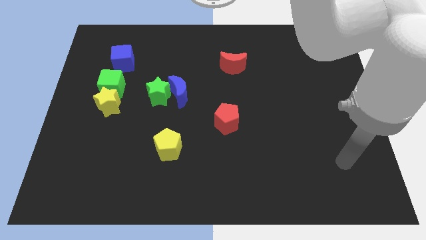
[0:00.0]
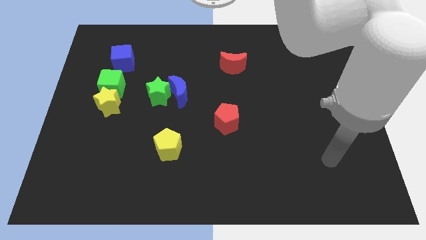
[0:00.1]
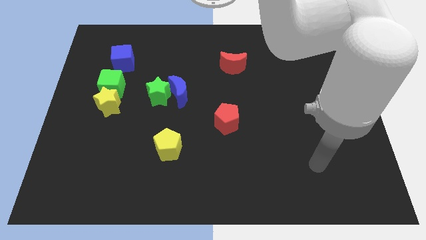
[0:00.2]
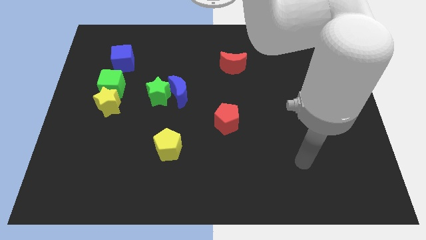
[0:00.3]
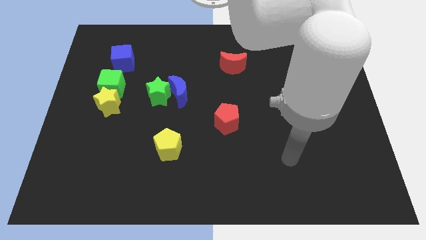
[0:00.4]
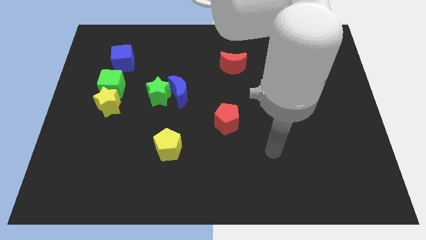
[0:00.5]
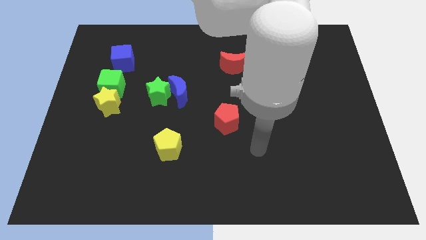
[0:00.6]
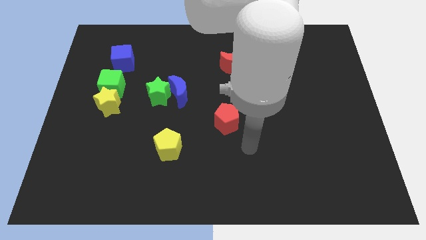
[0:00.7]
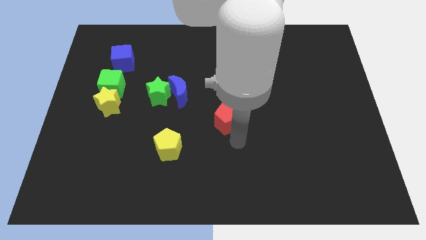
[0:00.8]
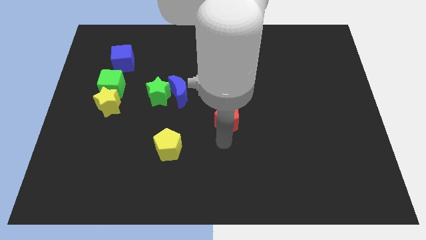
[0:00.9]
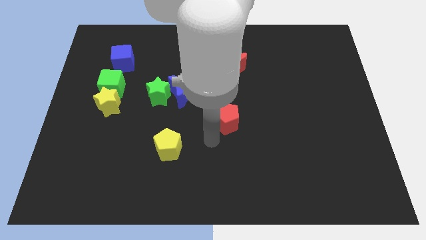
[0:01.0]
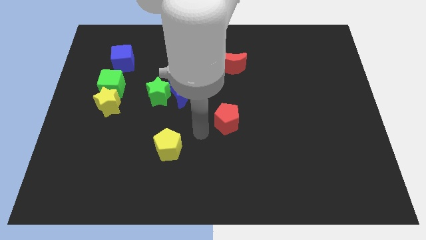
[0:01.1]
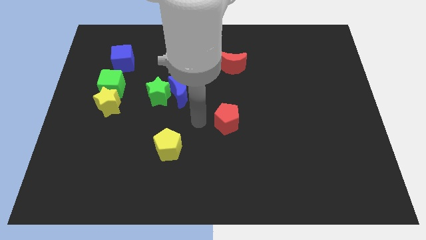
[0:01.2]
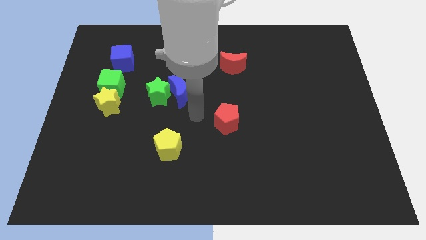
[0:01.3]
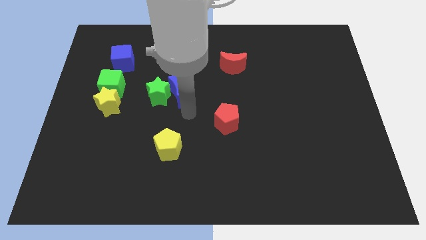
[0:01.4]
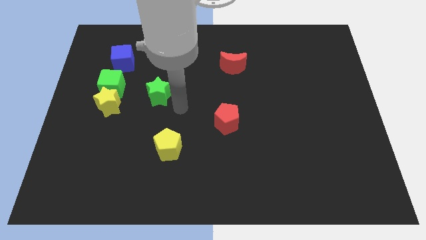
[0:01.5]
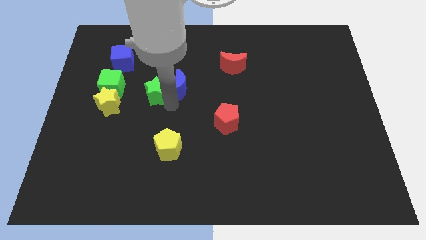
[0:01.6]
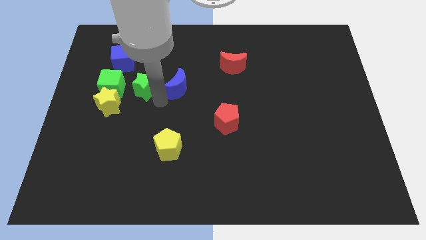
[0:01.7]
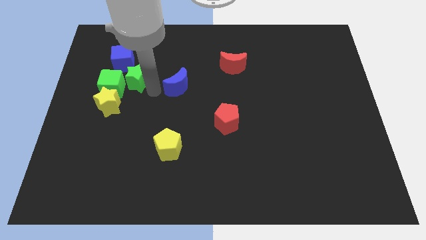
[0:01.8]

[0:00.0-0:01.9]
separate the blue moon from the green star

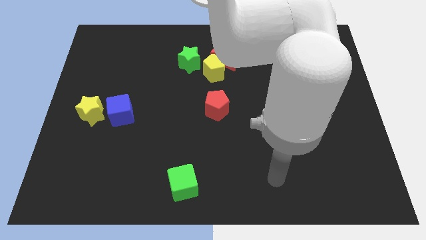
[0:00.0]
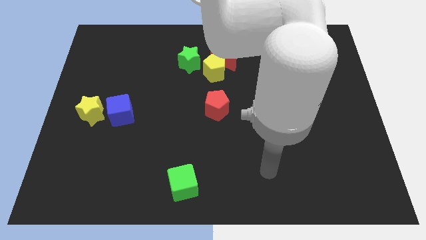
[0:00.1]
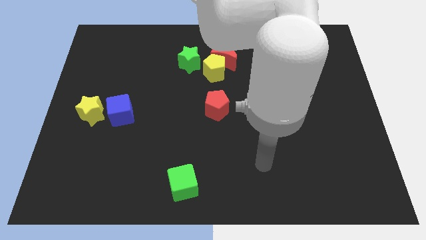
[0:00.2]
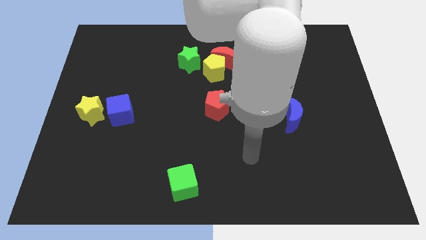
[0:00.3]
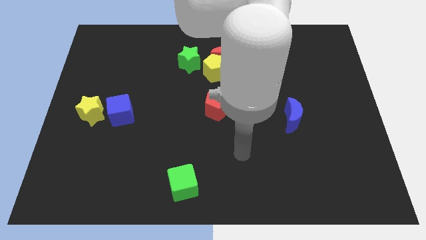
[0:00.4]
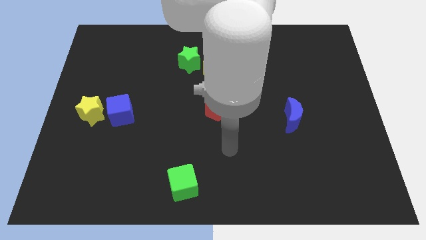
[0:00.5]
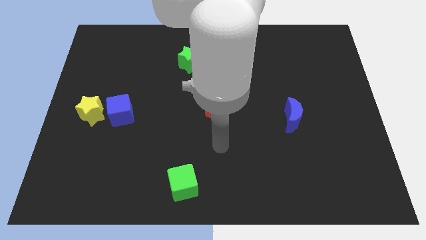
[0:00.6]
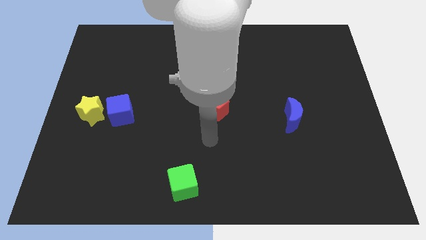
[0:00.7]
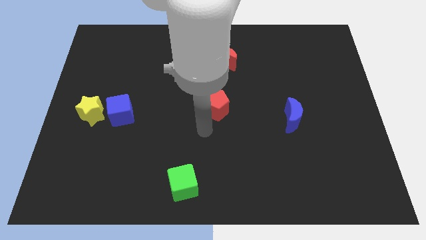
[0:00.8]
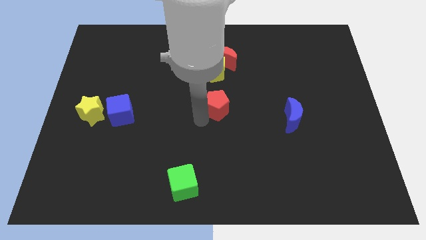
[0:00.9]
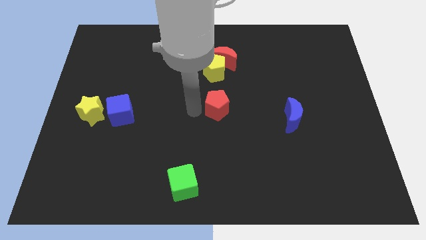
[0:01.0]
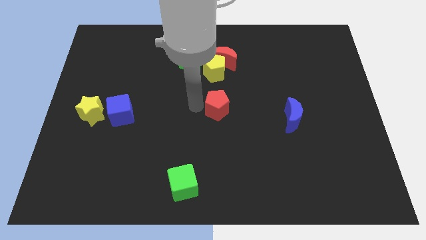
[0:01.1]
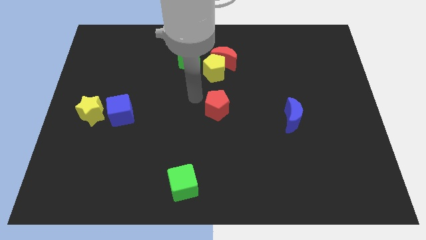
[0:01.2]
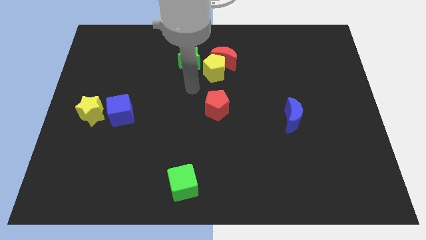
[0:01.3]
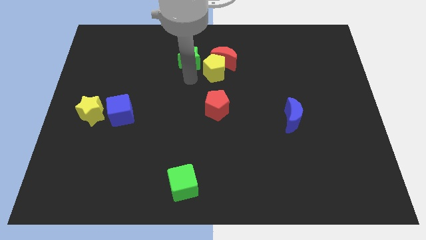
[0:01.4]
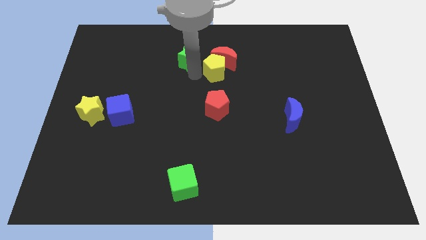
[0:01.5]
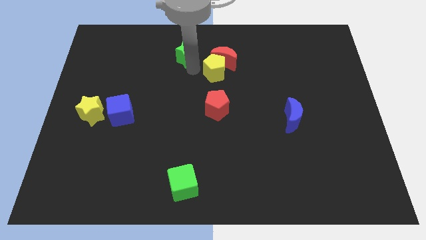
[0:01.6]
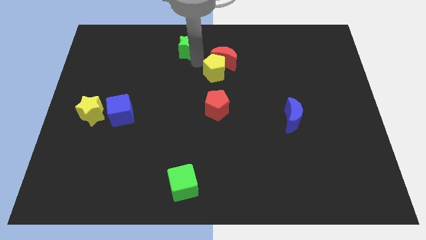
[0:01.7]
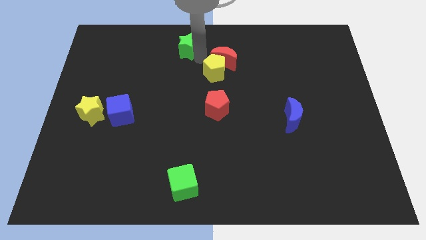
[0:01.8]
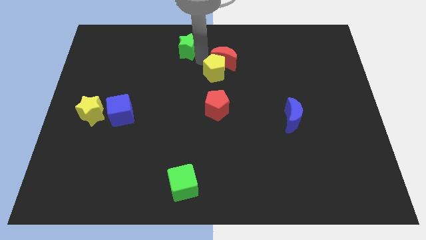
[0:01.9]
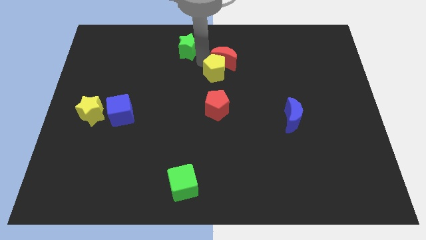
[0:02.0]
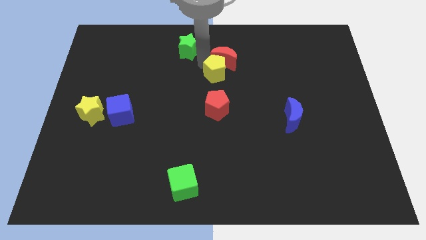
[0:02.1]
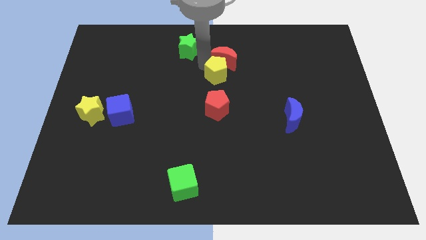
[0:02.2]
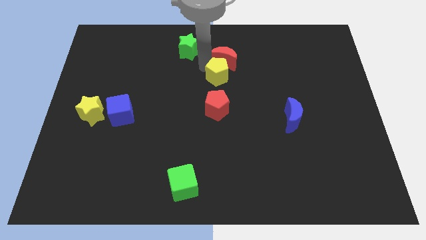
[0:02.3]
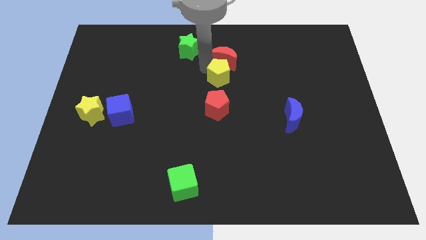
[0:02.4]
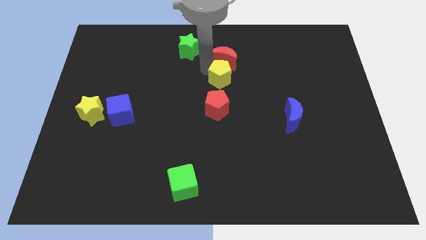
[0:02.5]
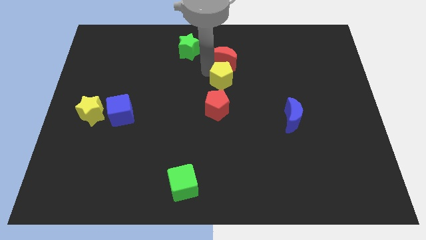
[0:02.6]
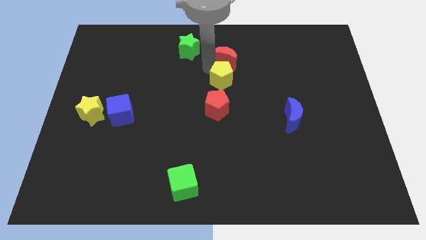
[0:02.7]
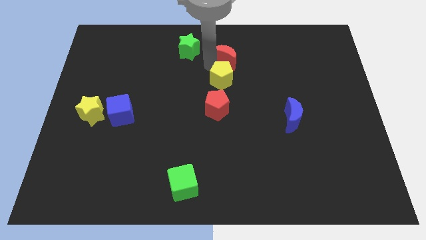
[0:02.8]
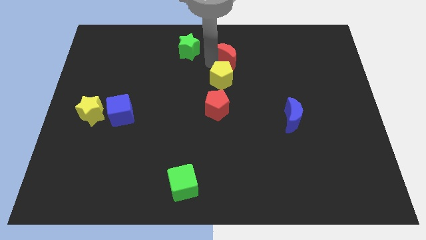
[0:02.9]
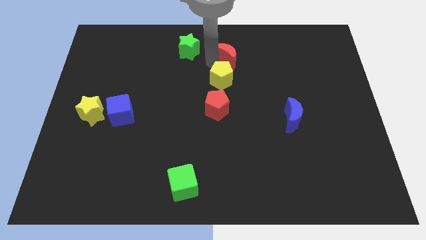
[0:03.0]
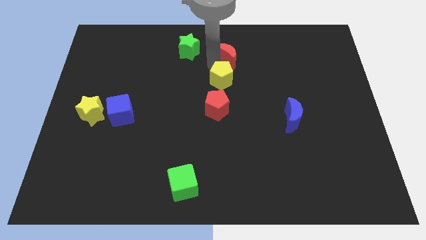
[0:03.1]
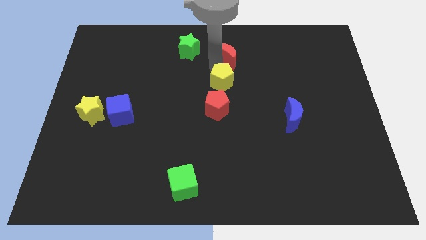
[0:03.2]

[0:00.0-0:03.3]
separate the yellow pentagon from the red moon and green star

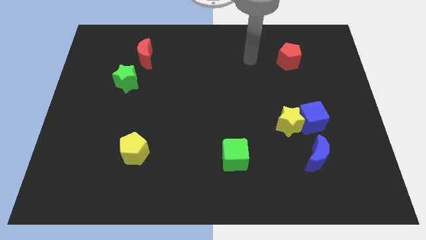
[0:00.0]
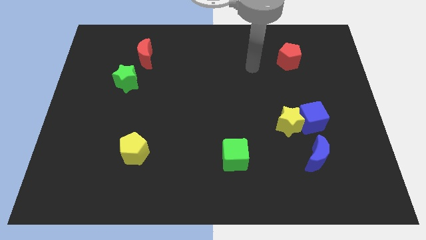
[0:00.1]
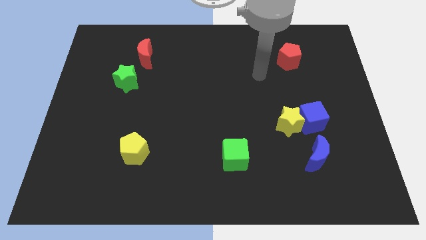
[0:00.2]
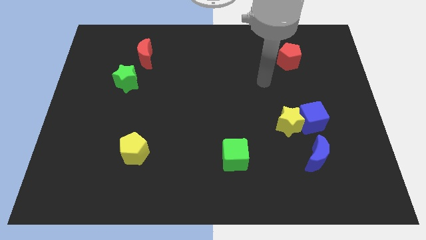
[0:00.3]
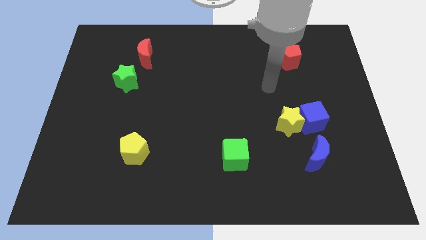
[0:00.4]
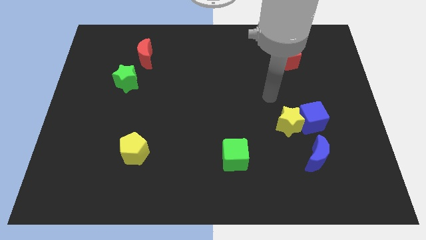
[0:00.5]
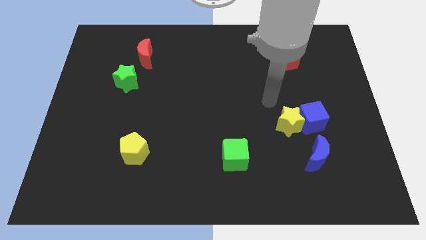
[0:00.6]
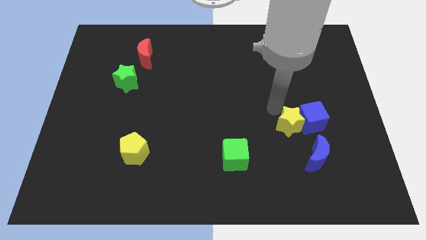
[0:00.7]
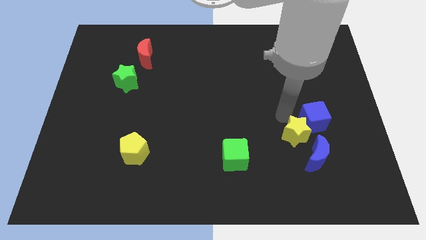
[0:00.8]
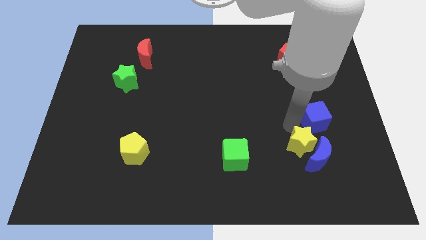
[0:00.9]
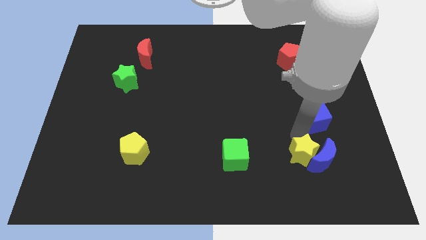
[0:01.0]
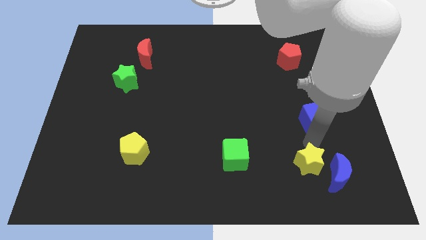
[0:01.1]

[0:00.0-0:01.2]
separate the blue cube from the yellow star and blue moon

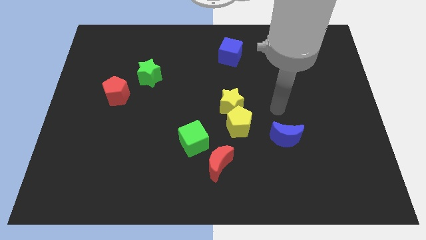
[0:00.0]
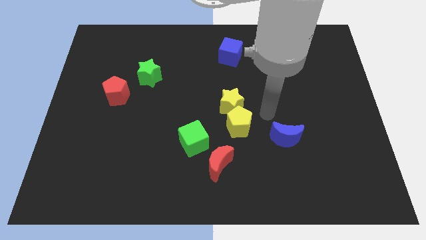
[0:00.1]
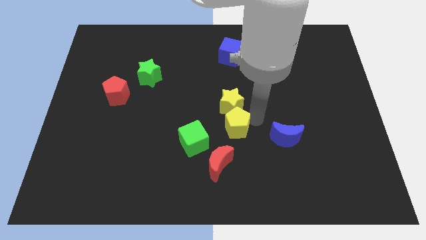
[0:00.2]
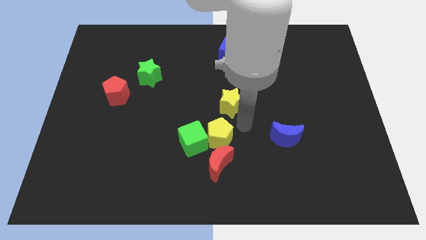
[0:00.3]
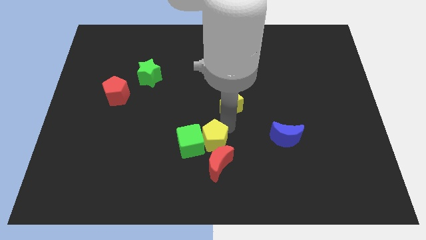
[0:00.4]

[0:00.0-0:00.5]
pull the yellow star apart from the yellow pentagon

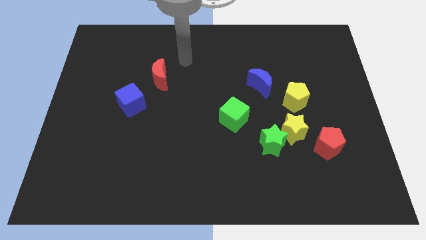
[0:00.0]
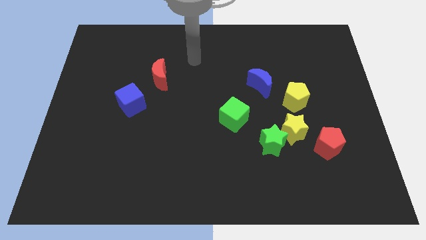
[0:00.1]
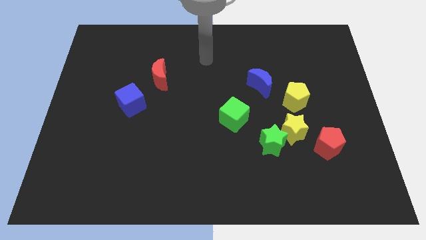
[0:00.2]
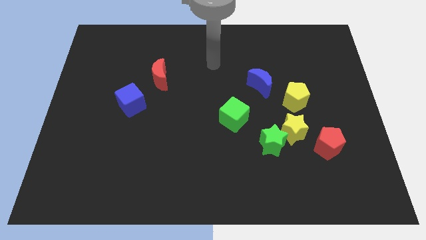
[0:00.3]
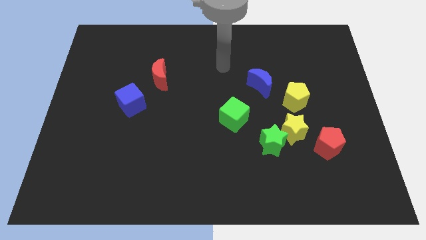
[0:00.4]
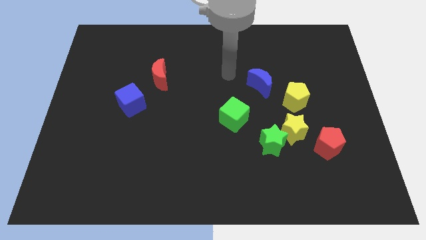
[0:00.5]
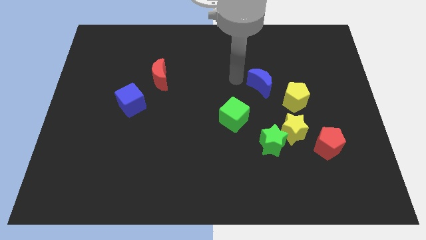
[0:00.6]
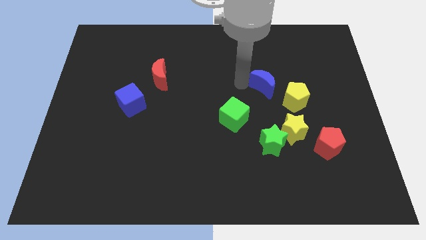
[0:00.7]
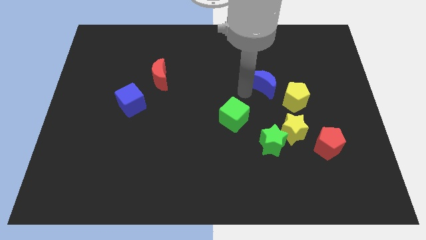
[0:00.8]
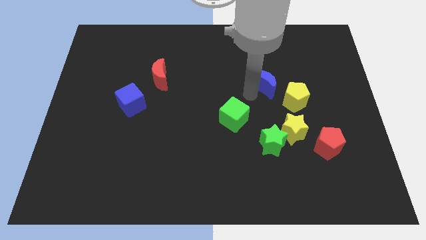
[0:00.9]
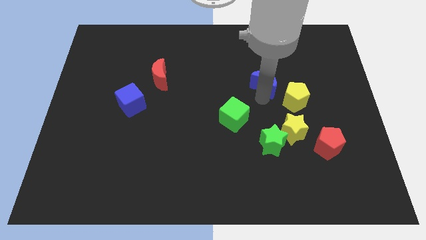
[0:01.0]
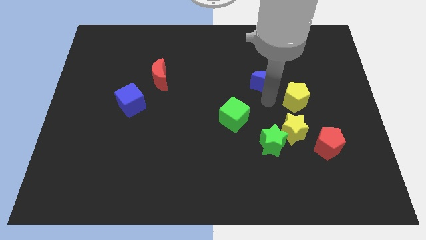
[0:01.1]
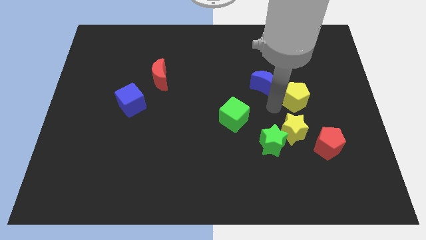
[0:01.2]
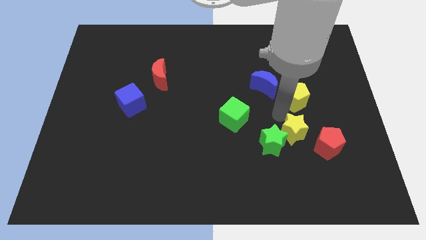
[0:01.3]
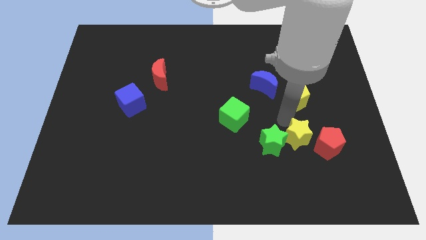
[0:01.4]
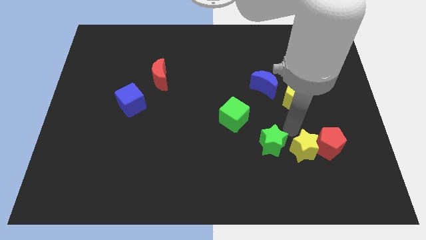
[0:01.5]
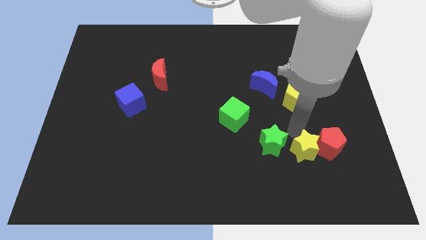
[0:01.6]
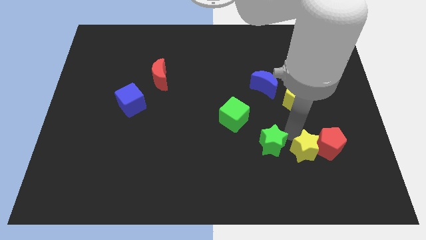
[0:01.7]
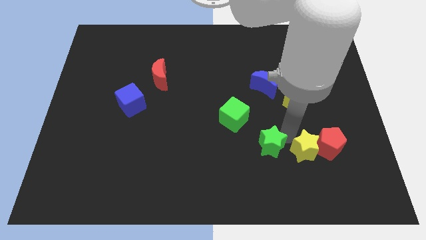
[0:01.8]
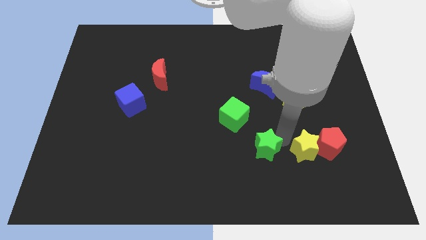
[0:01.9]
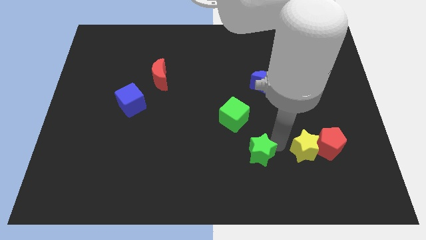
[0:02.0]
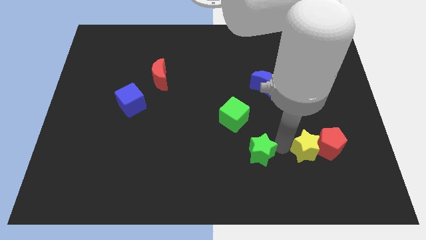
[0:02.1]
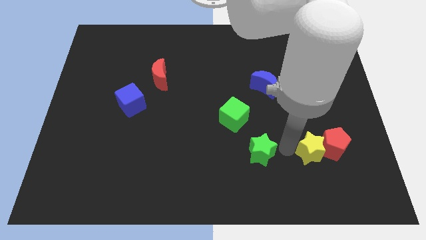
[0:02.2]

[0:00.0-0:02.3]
pull the green star apart from the yellow star
